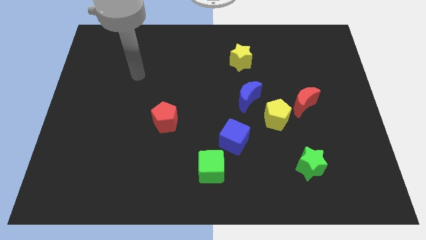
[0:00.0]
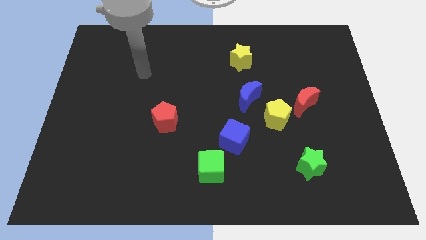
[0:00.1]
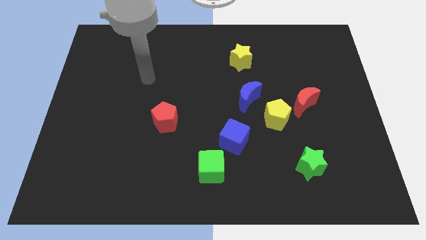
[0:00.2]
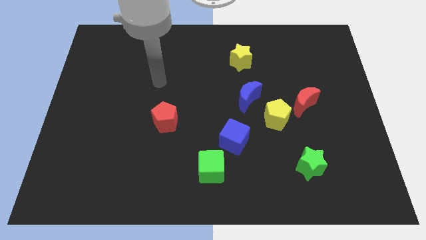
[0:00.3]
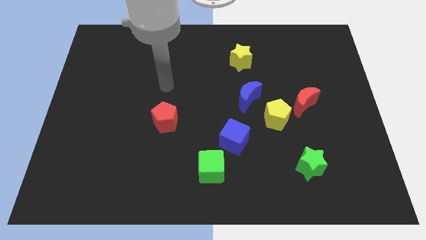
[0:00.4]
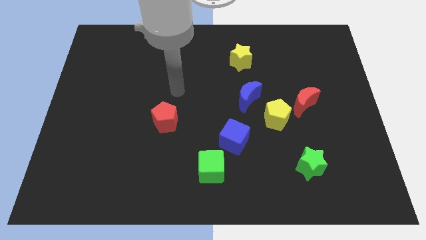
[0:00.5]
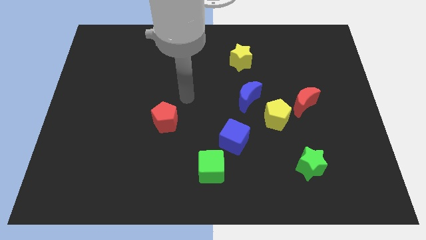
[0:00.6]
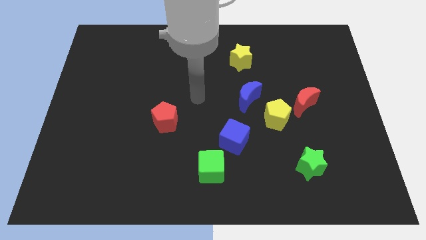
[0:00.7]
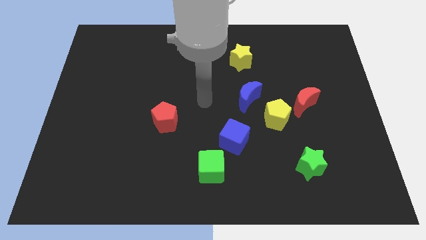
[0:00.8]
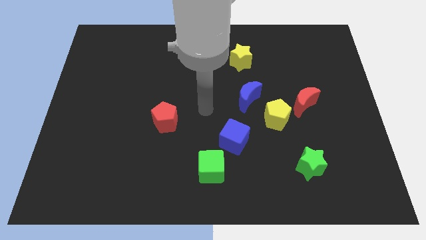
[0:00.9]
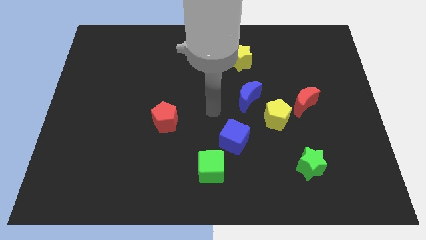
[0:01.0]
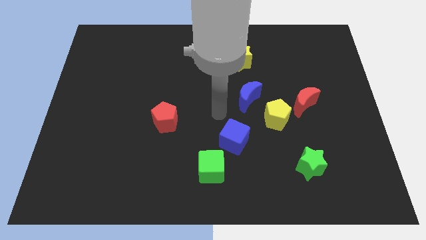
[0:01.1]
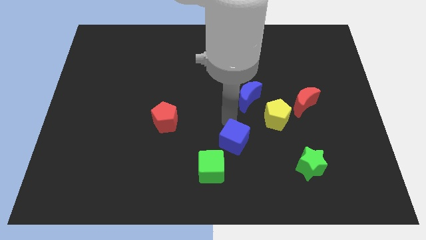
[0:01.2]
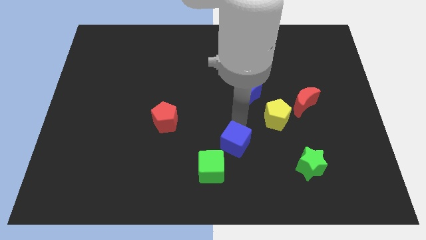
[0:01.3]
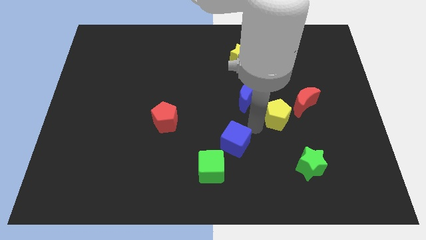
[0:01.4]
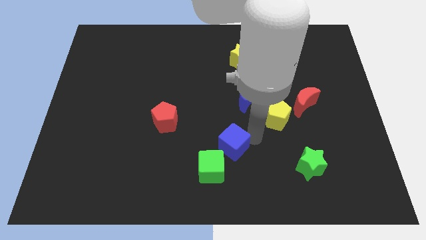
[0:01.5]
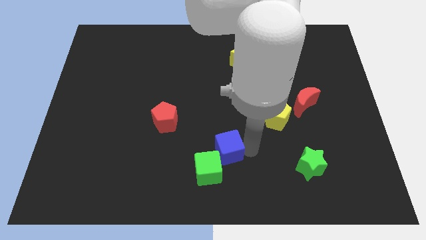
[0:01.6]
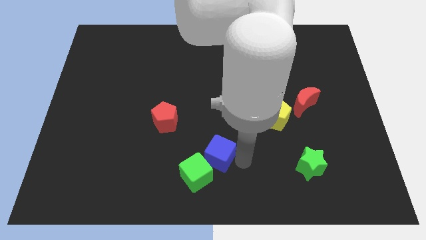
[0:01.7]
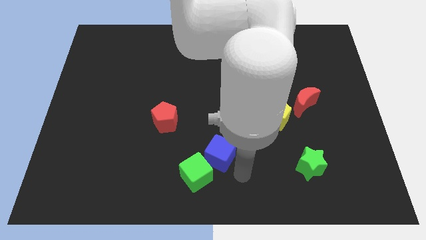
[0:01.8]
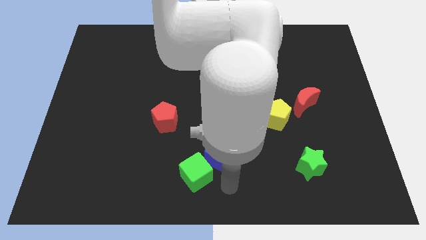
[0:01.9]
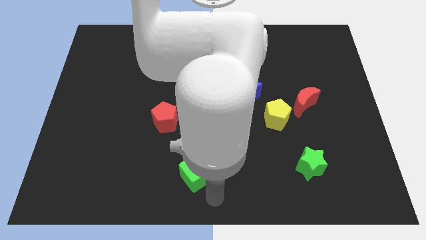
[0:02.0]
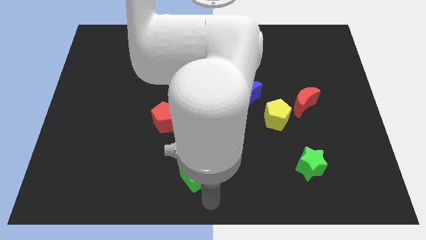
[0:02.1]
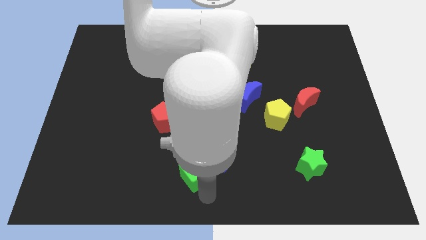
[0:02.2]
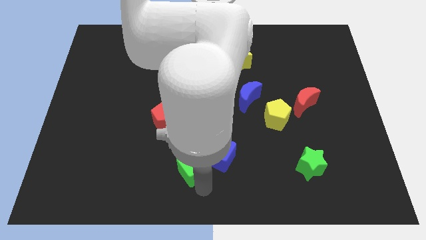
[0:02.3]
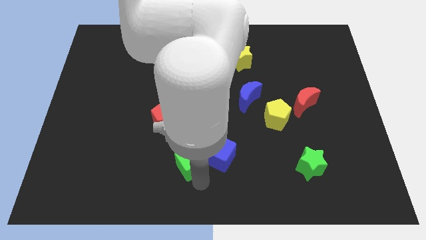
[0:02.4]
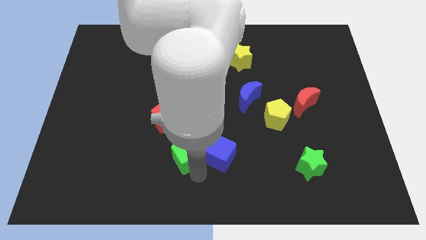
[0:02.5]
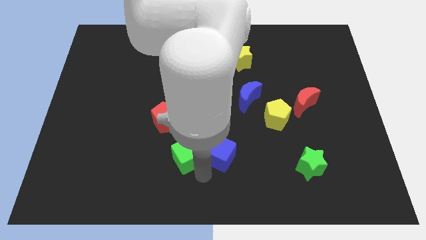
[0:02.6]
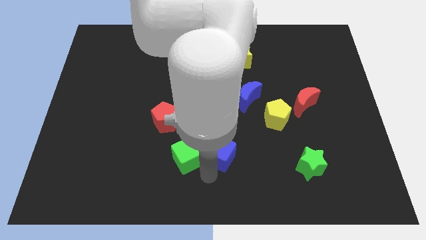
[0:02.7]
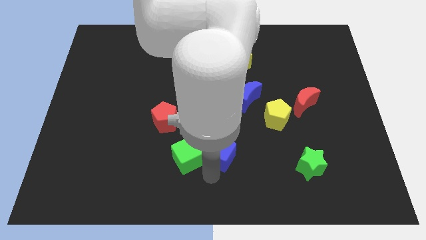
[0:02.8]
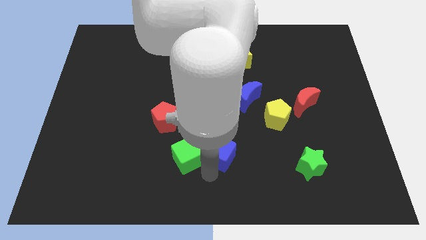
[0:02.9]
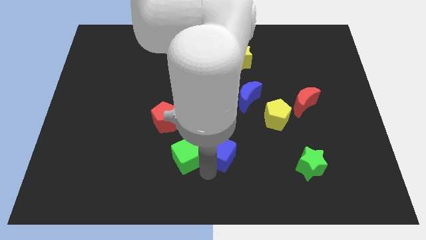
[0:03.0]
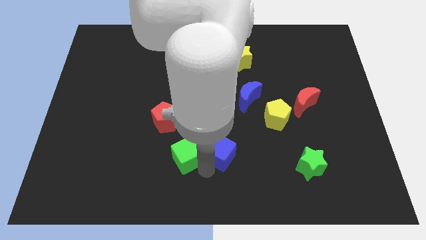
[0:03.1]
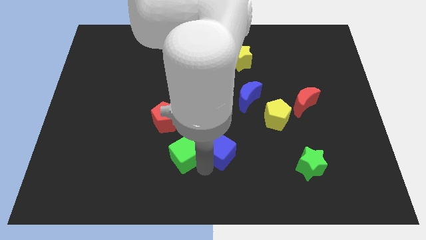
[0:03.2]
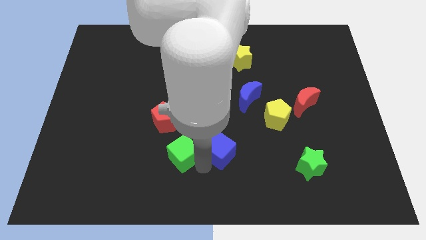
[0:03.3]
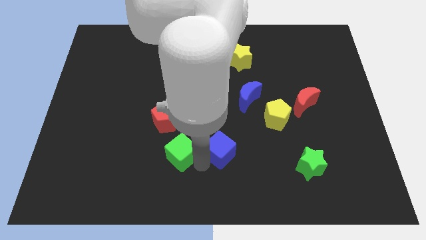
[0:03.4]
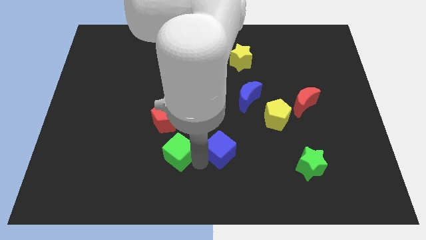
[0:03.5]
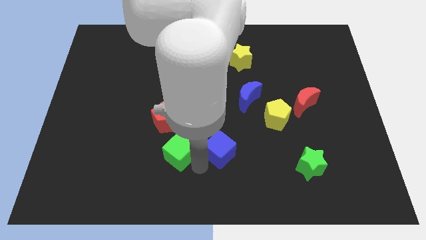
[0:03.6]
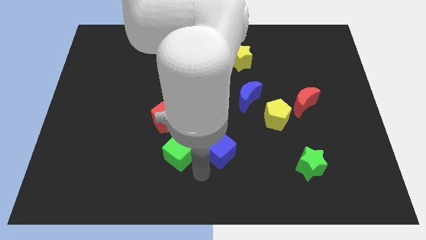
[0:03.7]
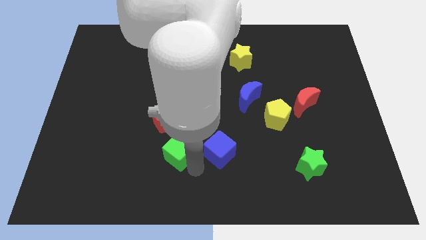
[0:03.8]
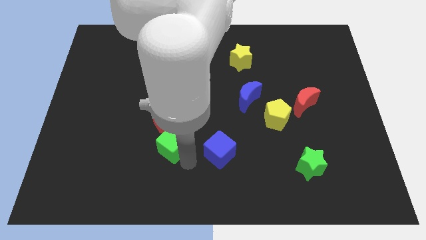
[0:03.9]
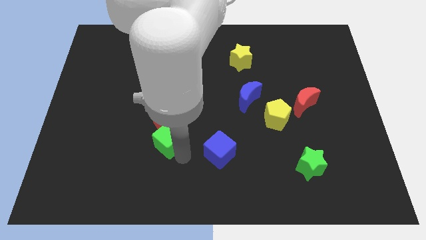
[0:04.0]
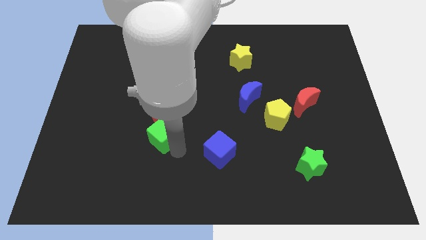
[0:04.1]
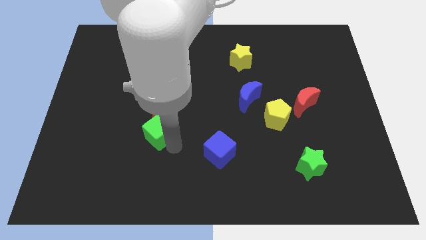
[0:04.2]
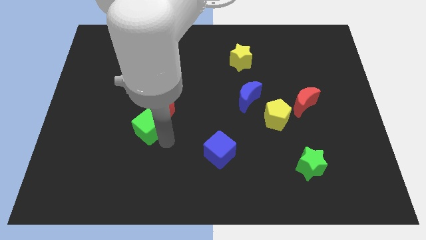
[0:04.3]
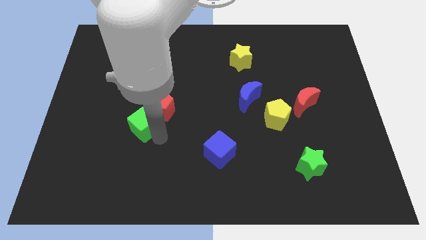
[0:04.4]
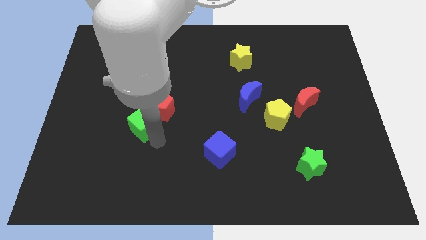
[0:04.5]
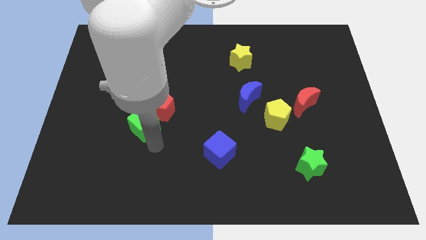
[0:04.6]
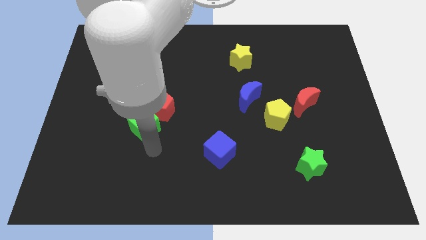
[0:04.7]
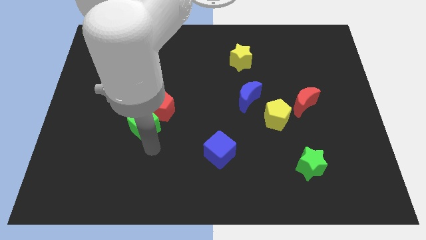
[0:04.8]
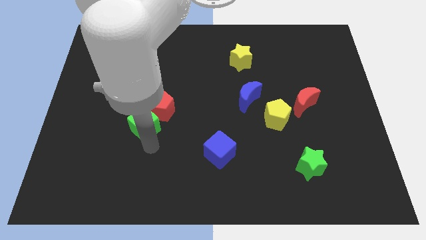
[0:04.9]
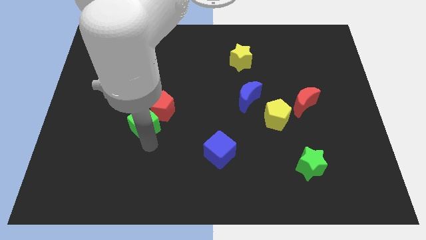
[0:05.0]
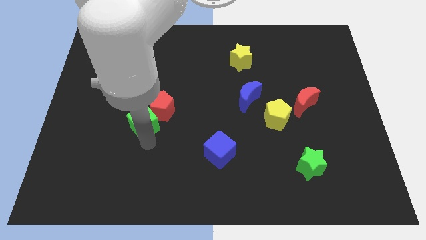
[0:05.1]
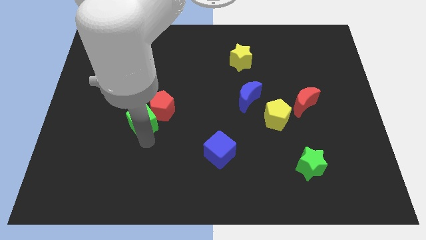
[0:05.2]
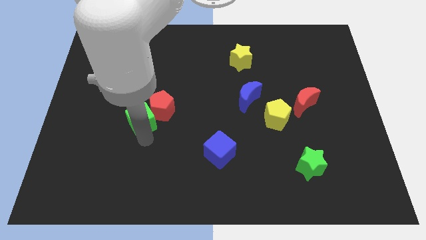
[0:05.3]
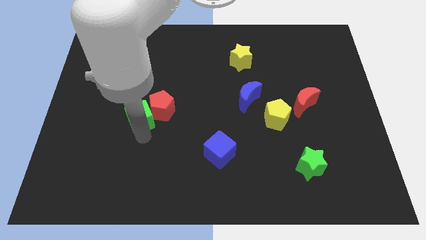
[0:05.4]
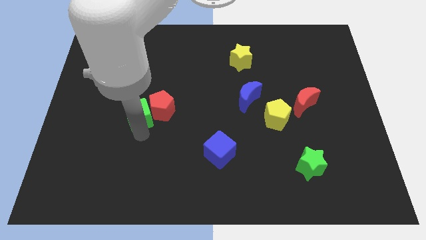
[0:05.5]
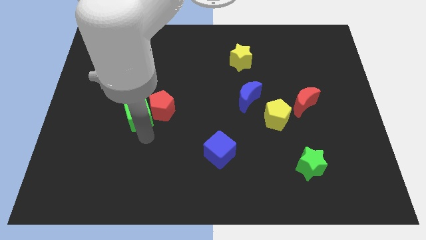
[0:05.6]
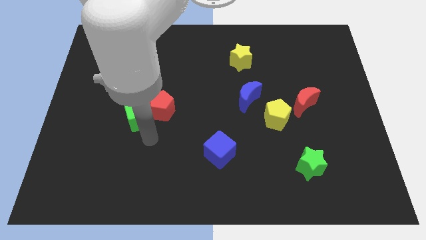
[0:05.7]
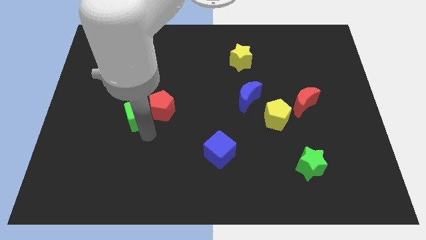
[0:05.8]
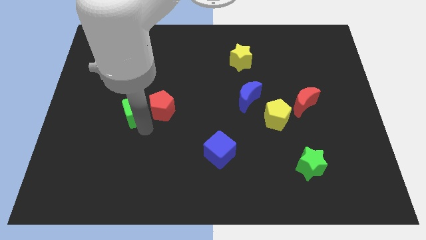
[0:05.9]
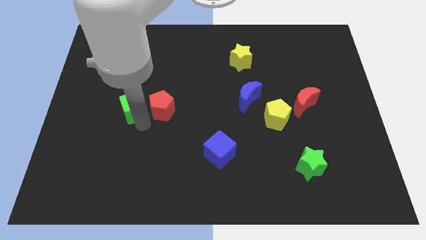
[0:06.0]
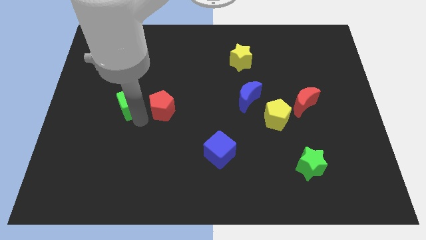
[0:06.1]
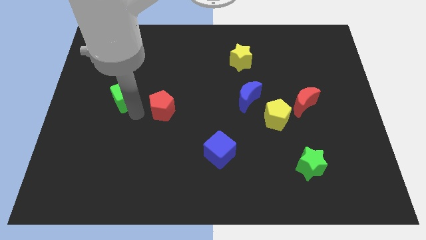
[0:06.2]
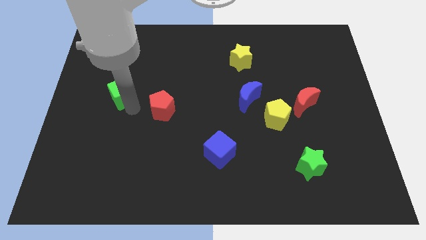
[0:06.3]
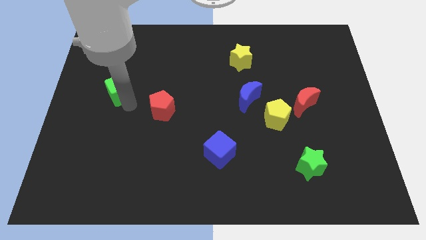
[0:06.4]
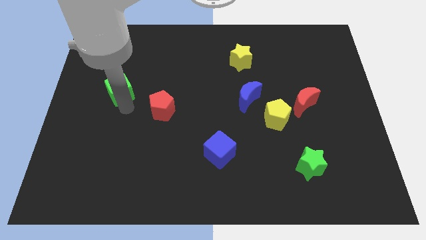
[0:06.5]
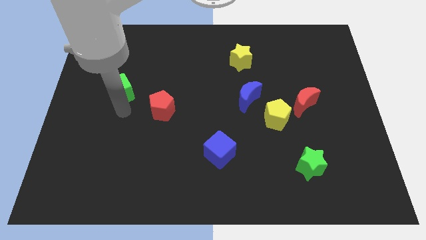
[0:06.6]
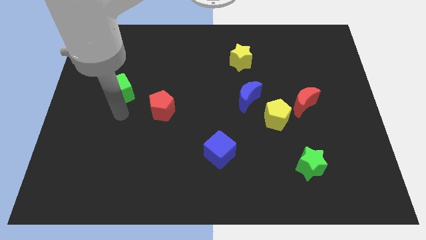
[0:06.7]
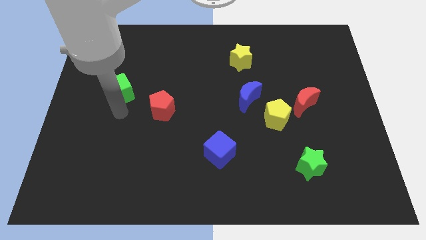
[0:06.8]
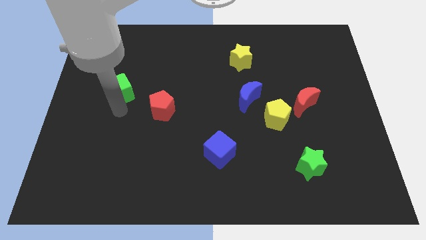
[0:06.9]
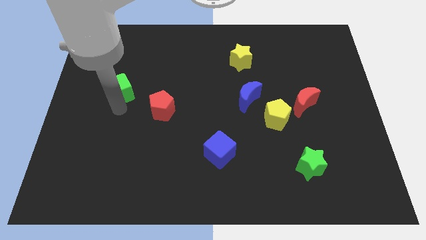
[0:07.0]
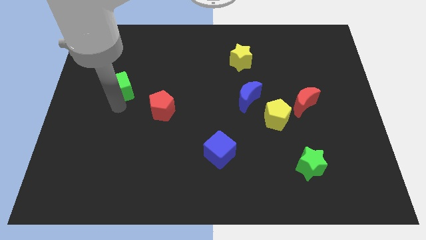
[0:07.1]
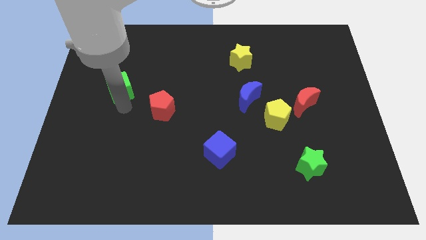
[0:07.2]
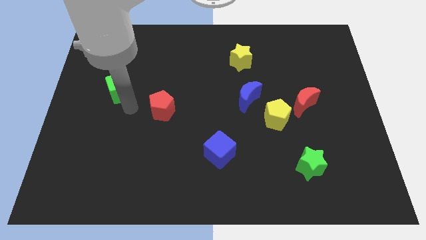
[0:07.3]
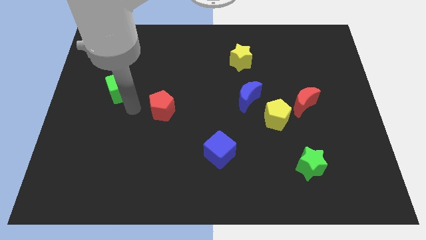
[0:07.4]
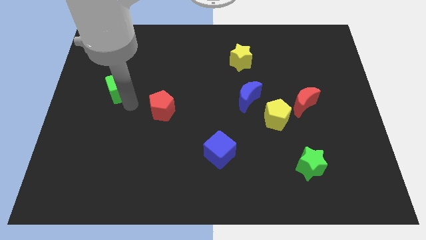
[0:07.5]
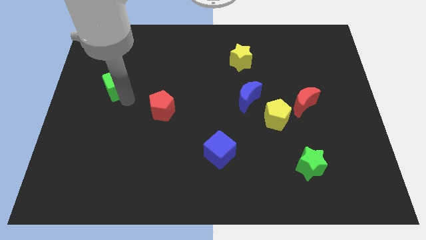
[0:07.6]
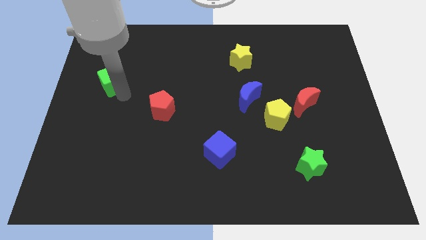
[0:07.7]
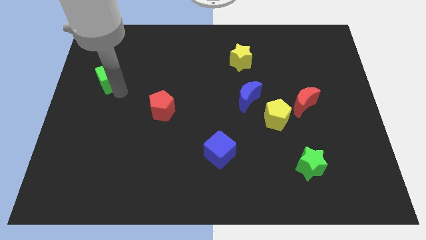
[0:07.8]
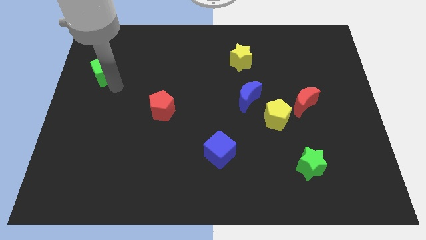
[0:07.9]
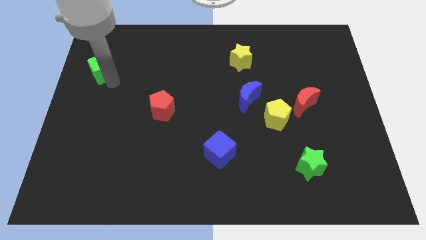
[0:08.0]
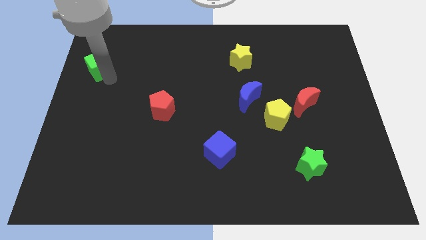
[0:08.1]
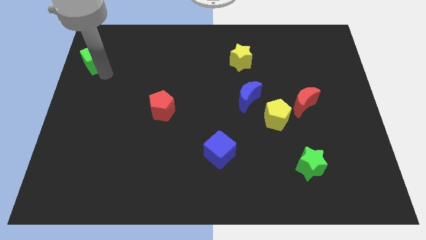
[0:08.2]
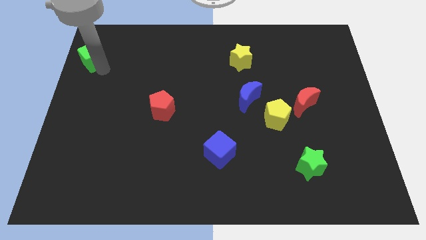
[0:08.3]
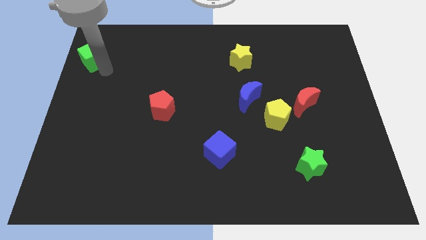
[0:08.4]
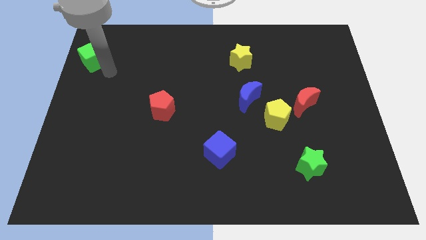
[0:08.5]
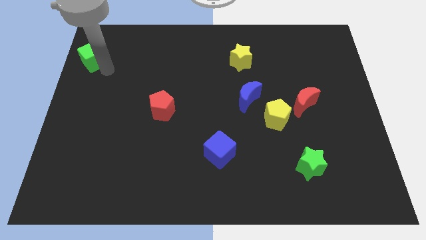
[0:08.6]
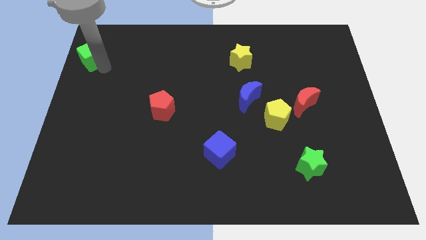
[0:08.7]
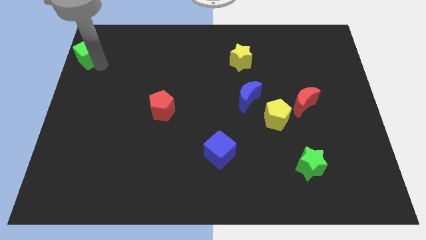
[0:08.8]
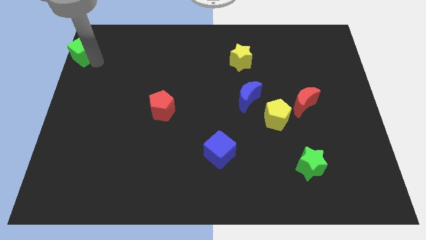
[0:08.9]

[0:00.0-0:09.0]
move the green cube to the top left
